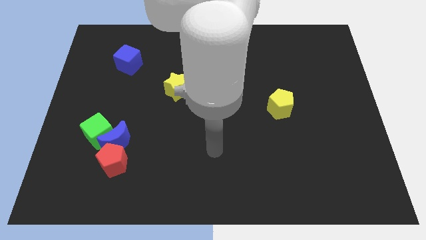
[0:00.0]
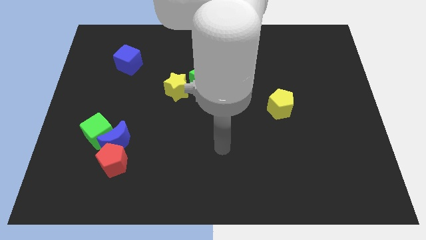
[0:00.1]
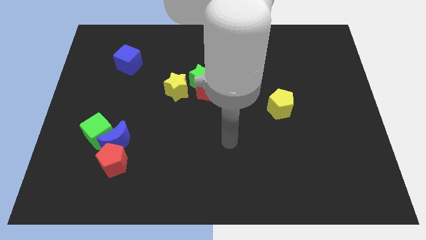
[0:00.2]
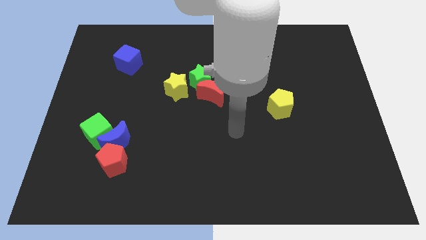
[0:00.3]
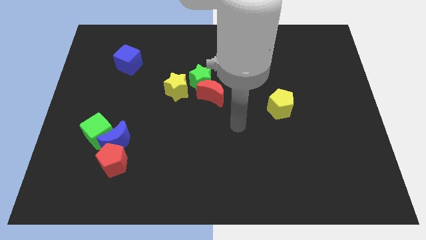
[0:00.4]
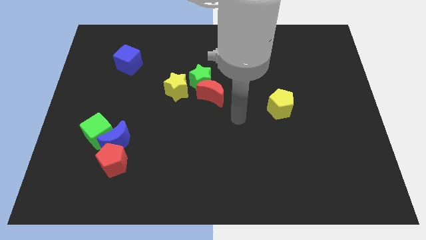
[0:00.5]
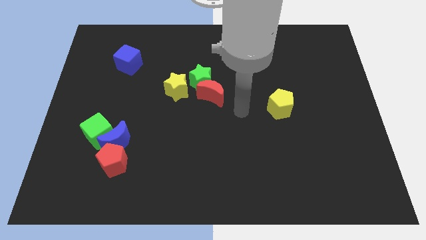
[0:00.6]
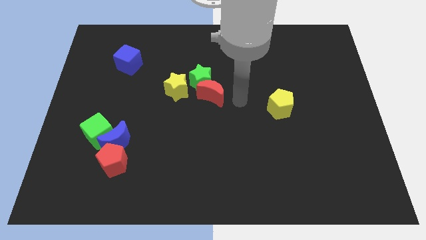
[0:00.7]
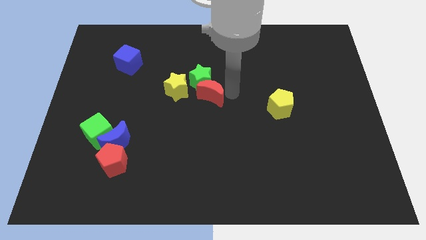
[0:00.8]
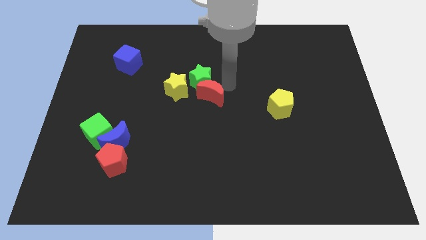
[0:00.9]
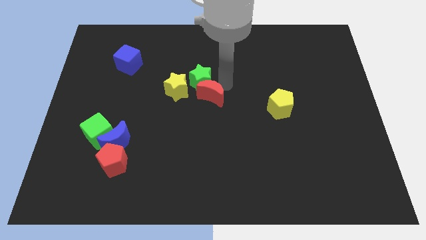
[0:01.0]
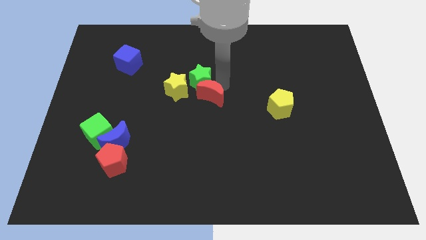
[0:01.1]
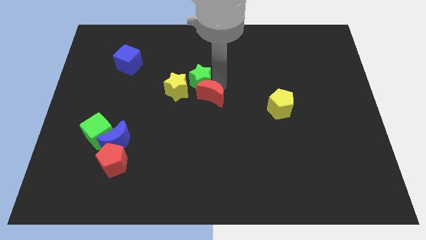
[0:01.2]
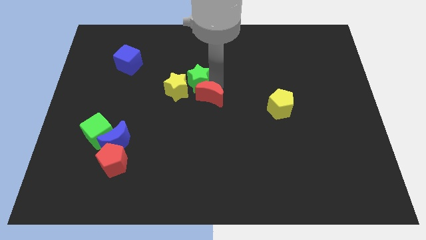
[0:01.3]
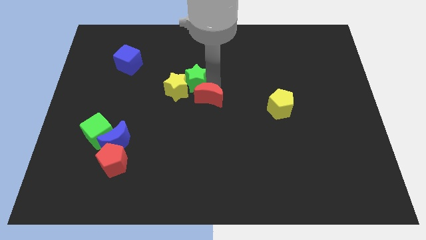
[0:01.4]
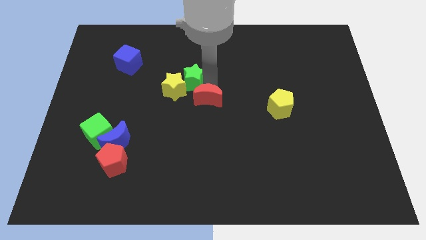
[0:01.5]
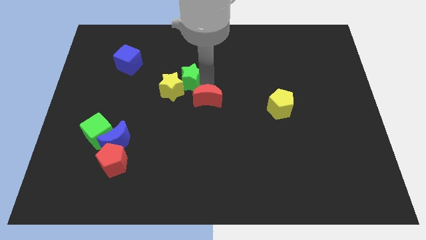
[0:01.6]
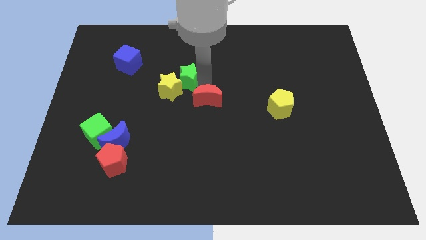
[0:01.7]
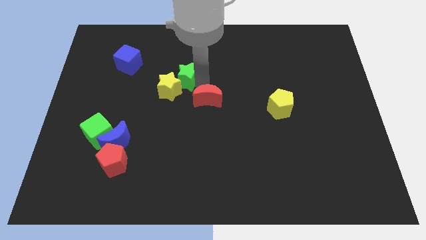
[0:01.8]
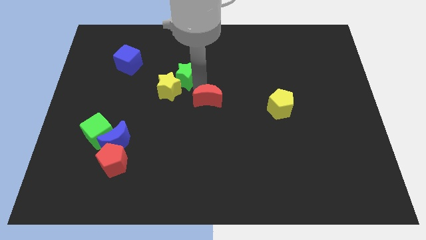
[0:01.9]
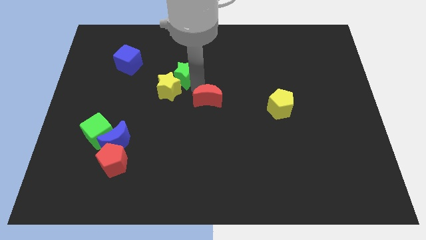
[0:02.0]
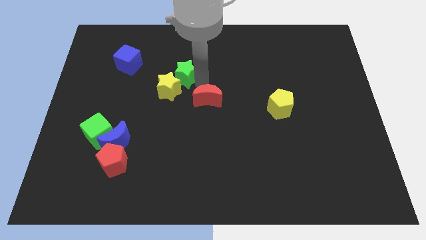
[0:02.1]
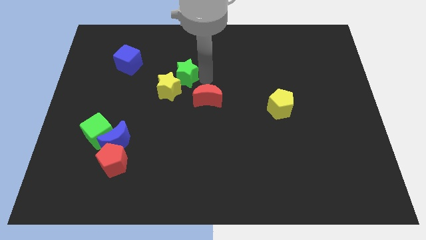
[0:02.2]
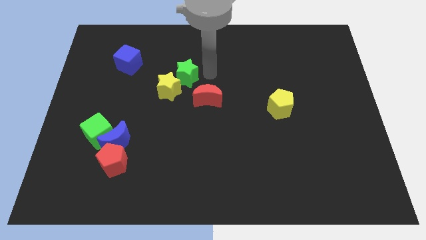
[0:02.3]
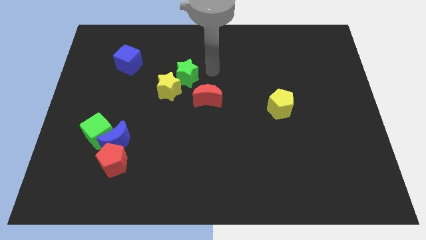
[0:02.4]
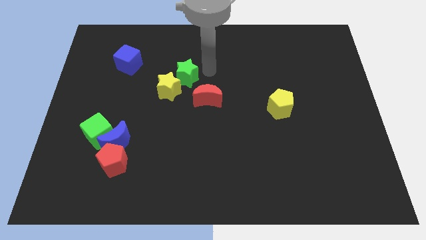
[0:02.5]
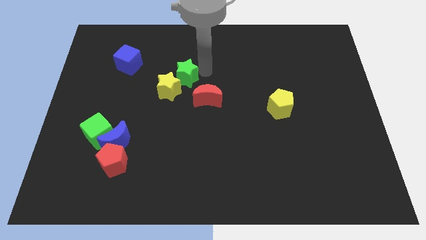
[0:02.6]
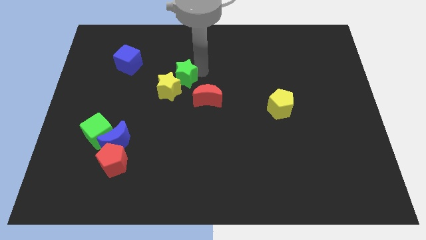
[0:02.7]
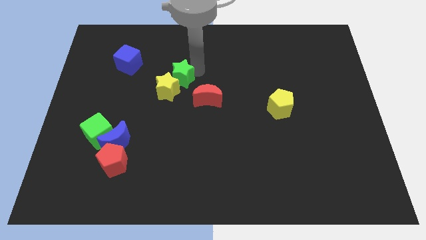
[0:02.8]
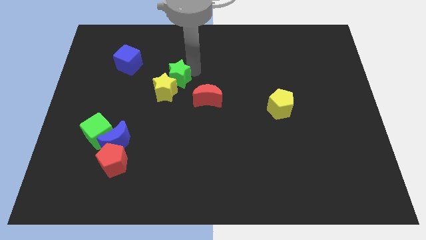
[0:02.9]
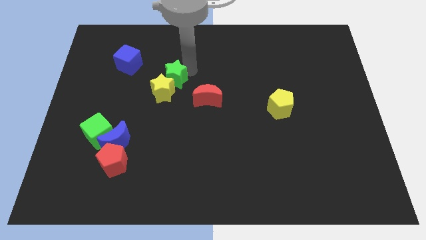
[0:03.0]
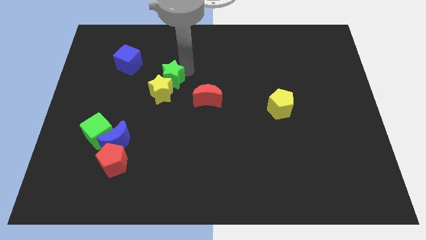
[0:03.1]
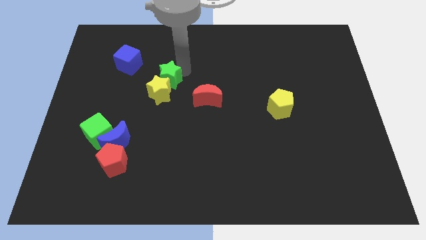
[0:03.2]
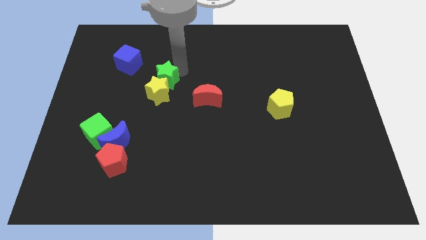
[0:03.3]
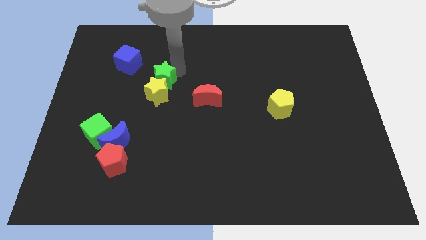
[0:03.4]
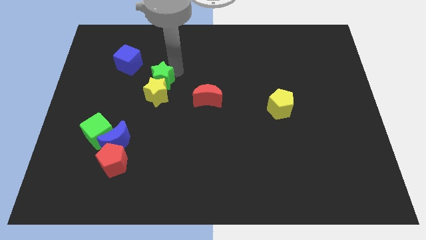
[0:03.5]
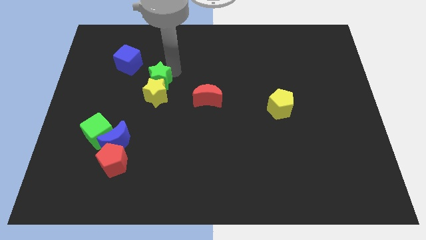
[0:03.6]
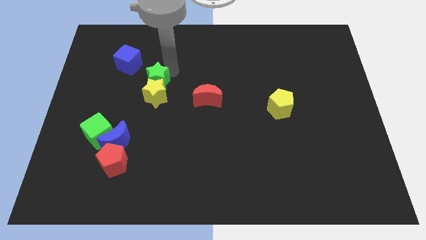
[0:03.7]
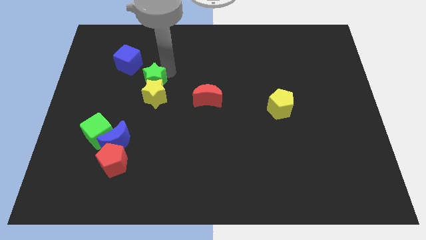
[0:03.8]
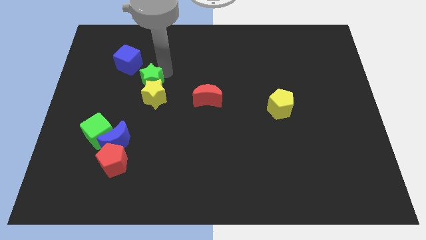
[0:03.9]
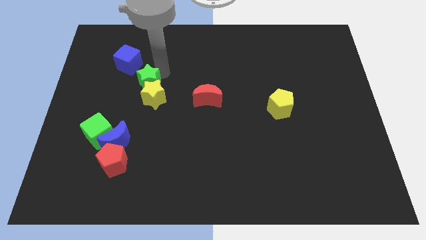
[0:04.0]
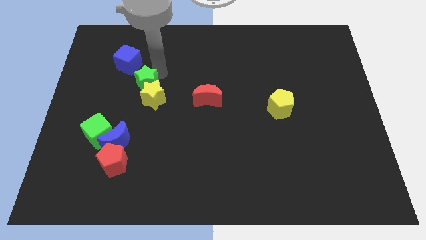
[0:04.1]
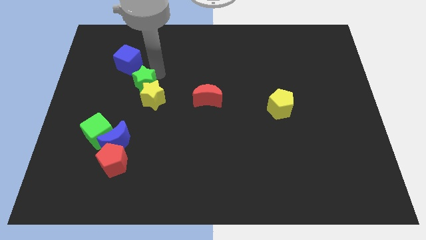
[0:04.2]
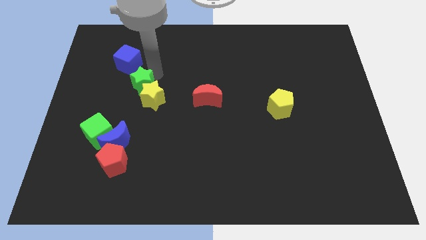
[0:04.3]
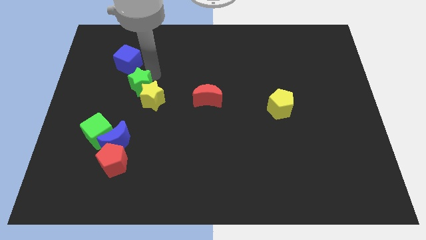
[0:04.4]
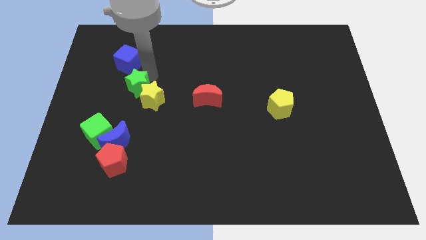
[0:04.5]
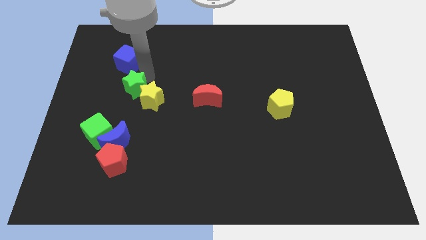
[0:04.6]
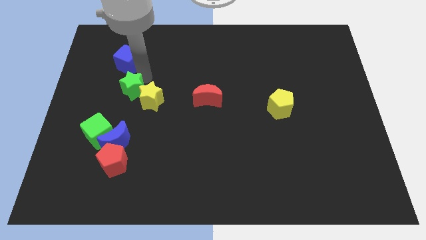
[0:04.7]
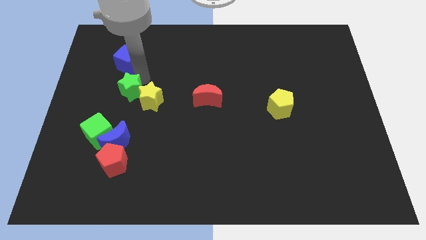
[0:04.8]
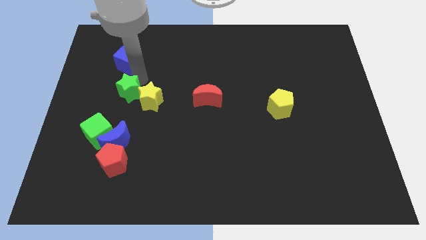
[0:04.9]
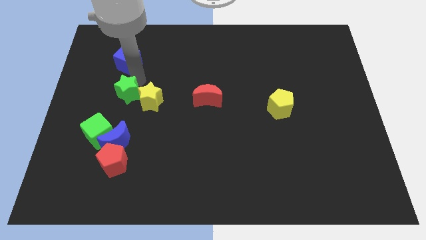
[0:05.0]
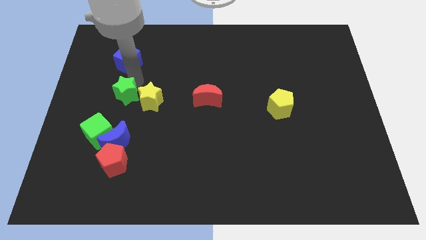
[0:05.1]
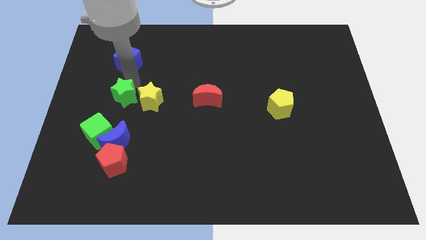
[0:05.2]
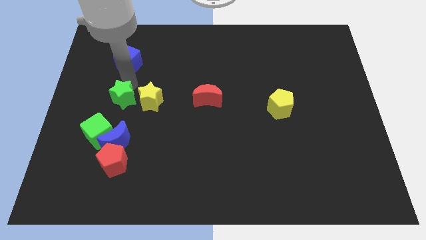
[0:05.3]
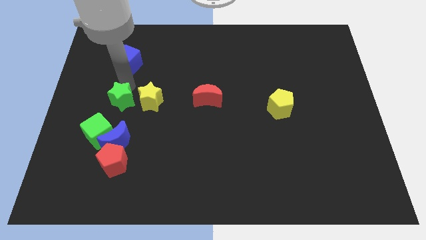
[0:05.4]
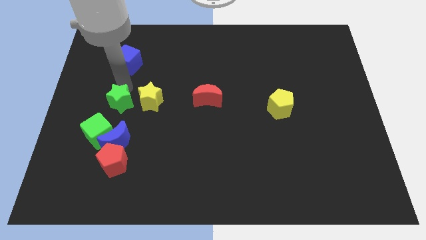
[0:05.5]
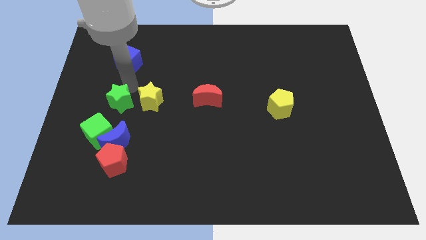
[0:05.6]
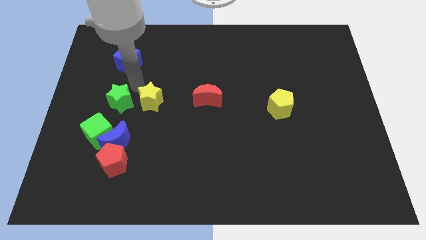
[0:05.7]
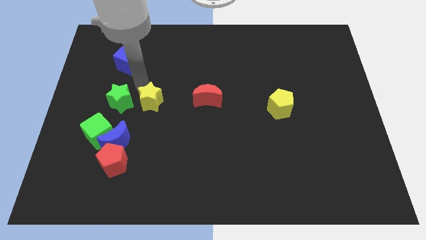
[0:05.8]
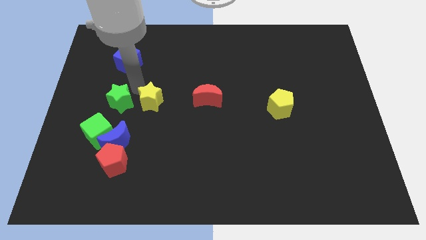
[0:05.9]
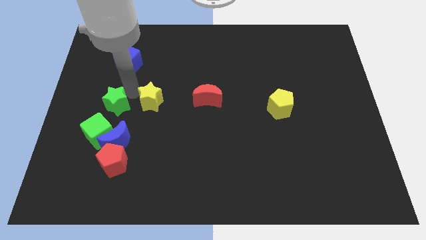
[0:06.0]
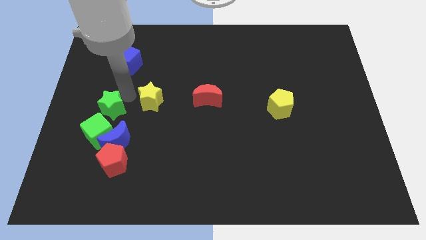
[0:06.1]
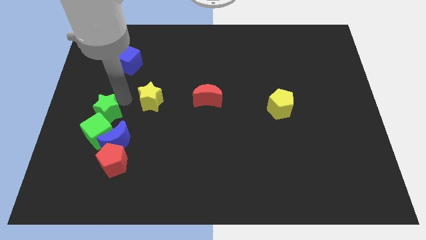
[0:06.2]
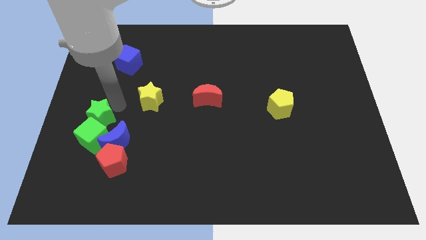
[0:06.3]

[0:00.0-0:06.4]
move the green star diagonally downwards and left

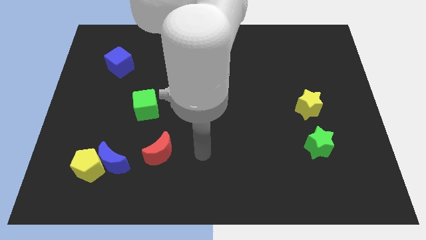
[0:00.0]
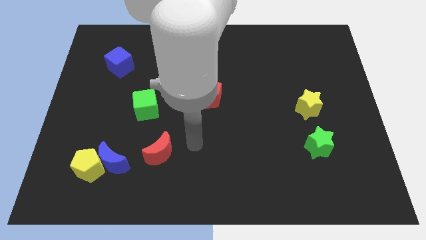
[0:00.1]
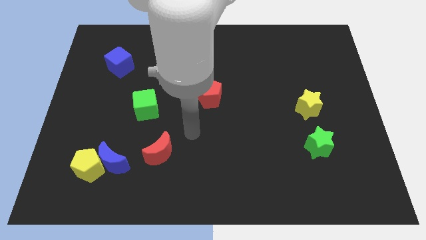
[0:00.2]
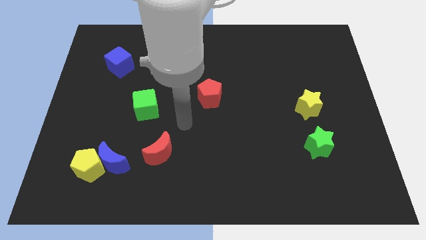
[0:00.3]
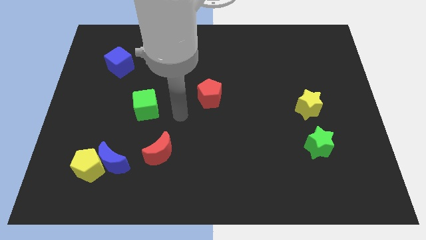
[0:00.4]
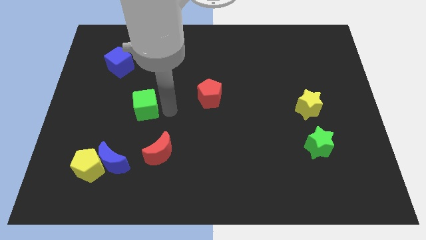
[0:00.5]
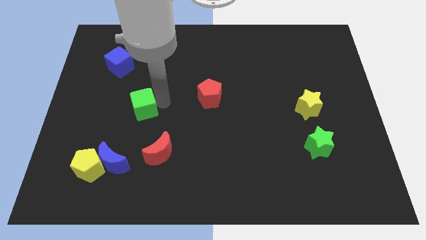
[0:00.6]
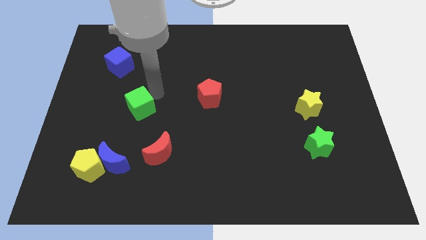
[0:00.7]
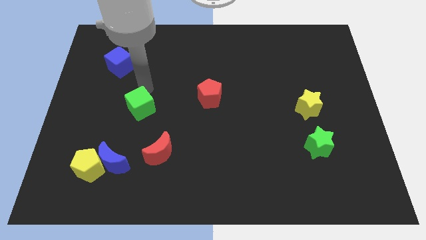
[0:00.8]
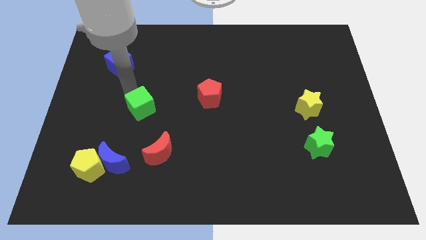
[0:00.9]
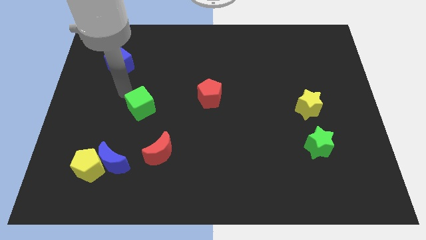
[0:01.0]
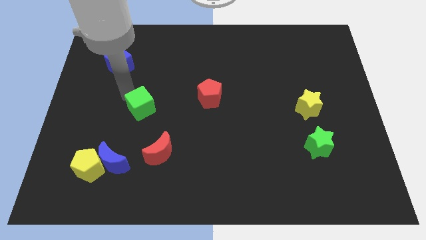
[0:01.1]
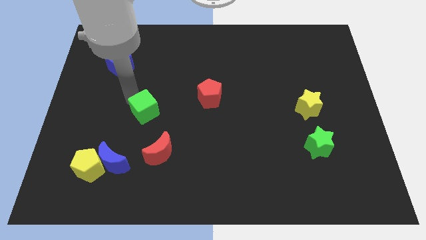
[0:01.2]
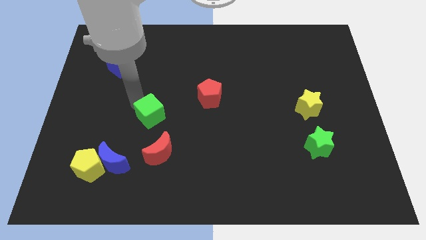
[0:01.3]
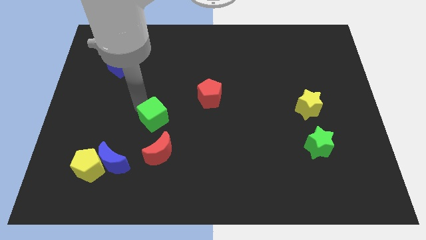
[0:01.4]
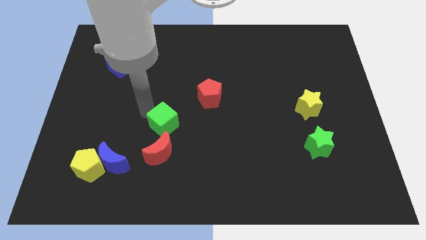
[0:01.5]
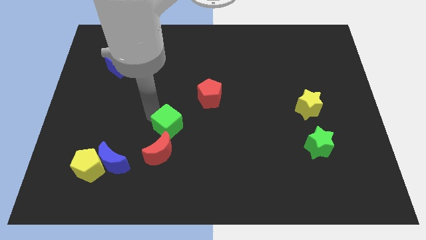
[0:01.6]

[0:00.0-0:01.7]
push the green cube diagonally down and right a little bit
